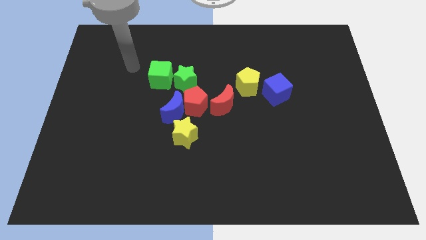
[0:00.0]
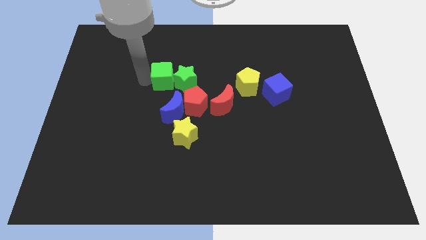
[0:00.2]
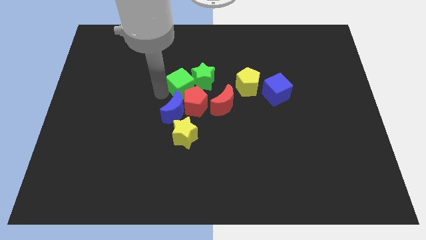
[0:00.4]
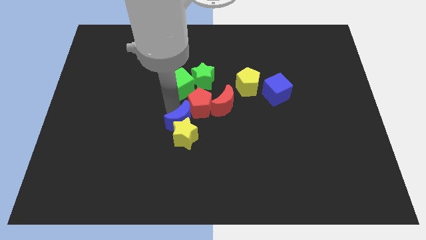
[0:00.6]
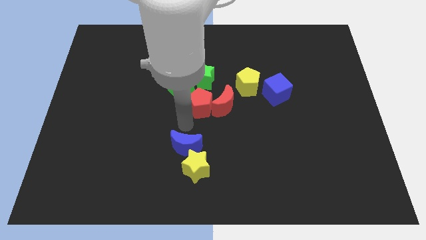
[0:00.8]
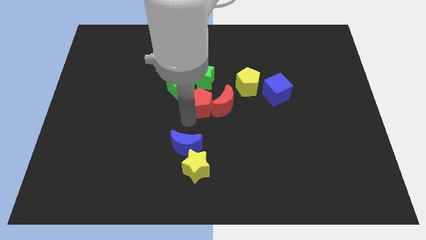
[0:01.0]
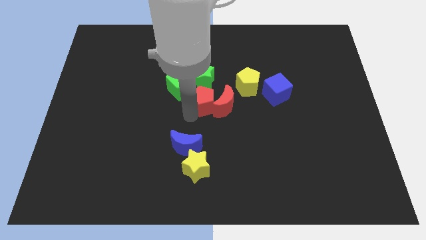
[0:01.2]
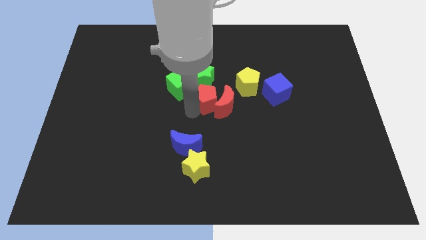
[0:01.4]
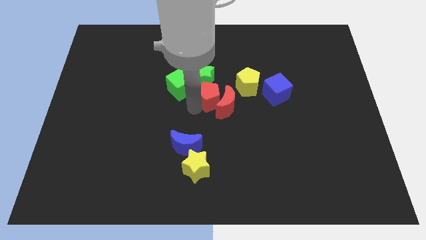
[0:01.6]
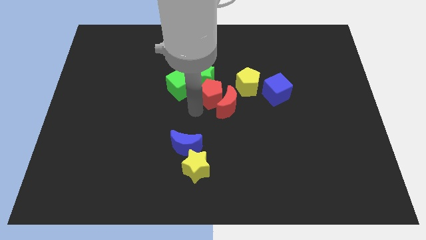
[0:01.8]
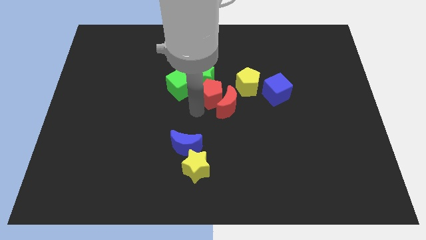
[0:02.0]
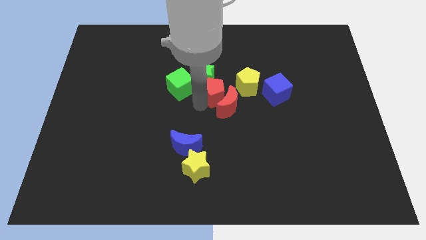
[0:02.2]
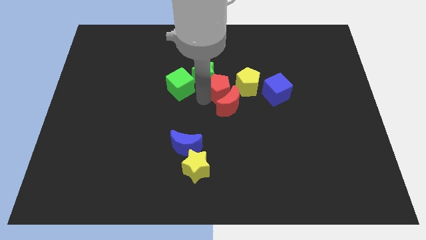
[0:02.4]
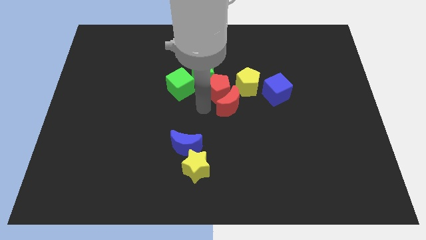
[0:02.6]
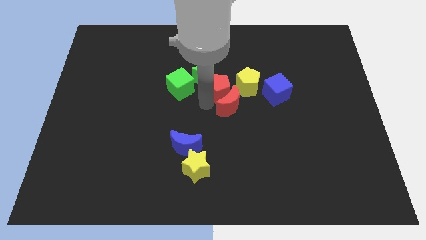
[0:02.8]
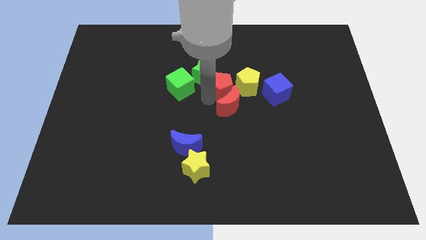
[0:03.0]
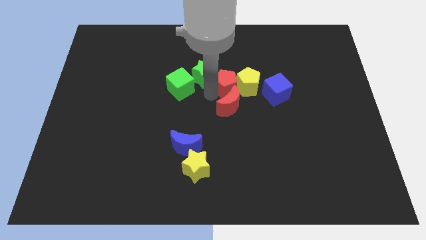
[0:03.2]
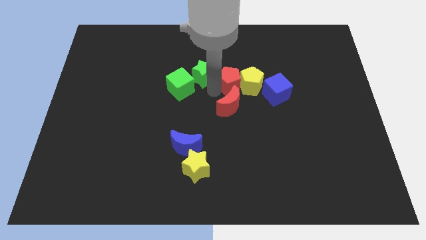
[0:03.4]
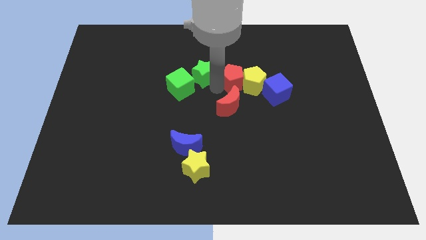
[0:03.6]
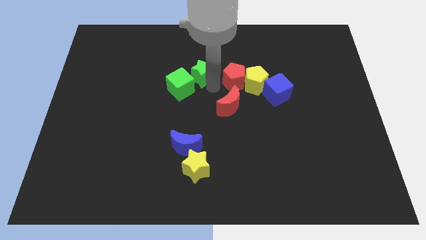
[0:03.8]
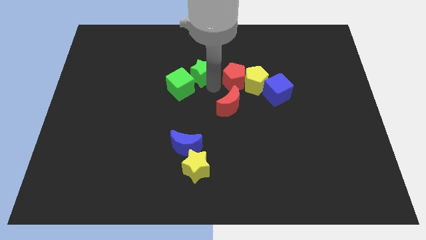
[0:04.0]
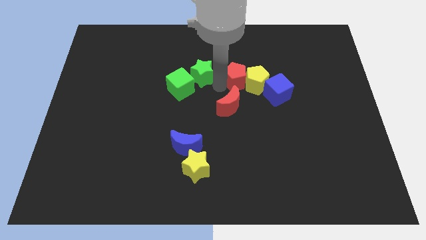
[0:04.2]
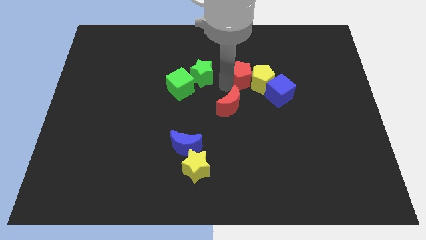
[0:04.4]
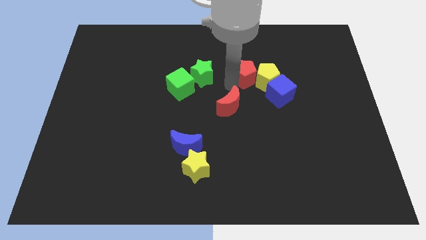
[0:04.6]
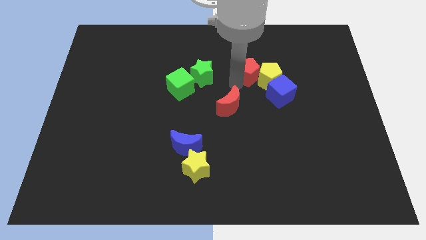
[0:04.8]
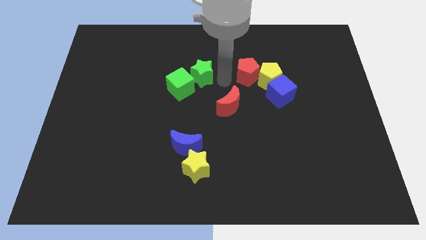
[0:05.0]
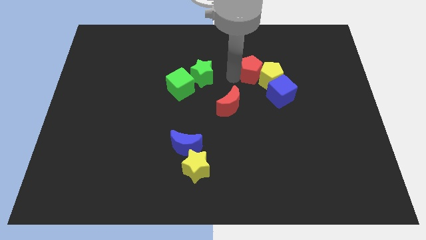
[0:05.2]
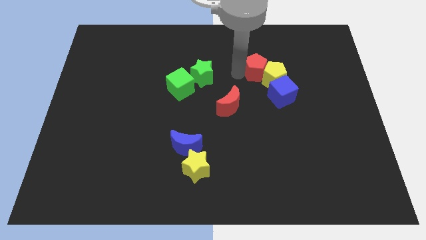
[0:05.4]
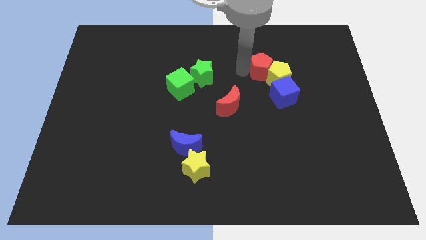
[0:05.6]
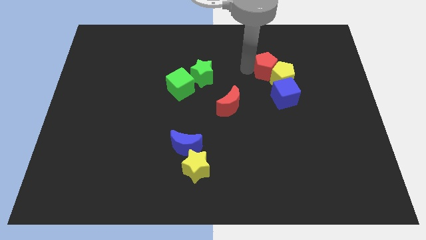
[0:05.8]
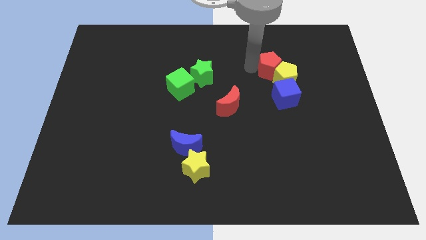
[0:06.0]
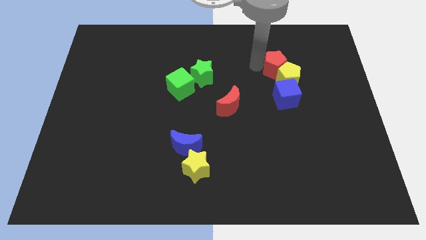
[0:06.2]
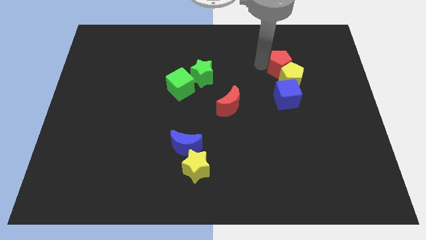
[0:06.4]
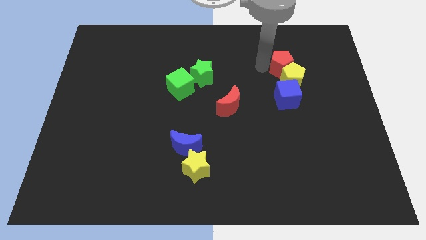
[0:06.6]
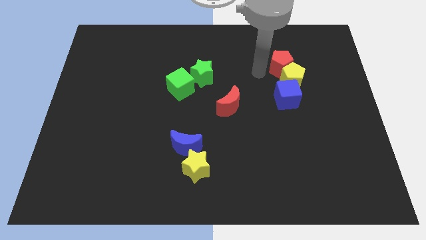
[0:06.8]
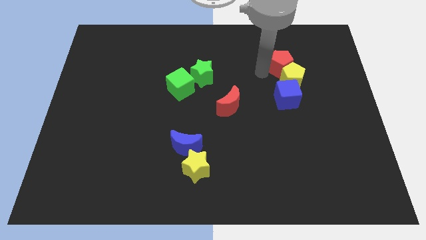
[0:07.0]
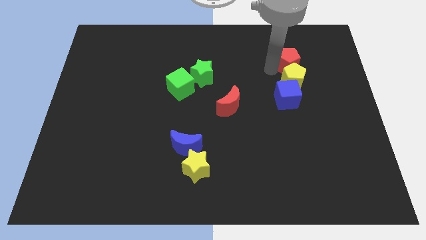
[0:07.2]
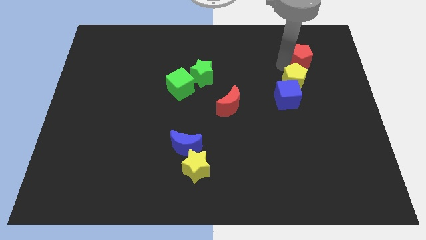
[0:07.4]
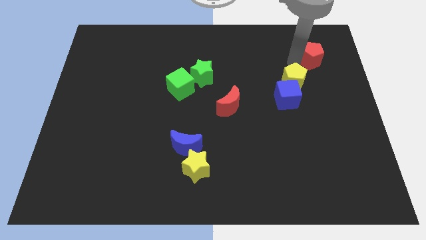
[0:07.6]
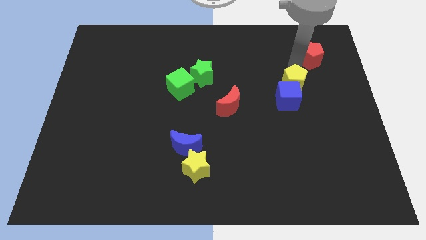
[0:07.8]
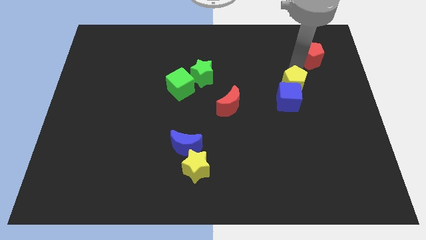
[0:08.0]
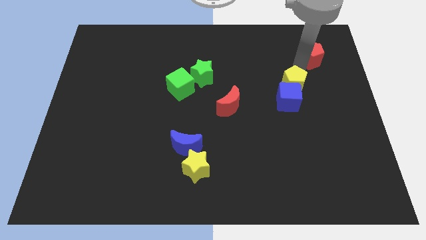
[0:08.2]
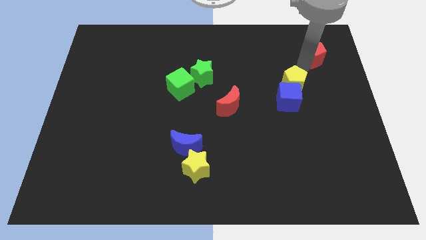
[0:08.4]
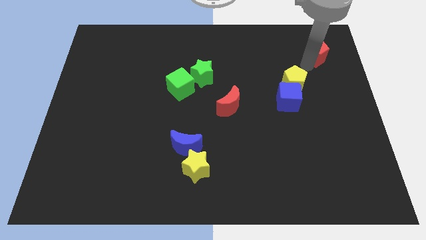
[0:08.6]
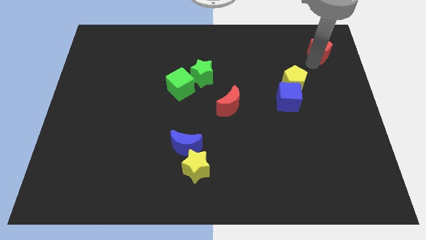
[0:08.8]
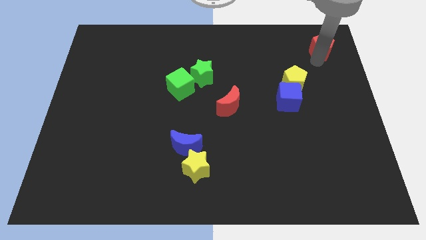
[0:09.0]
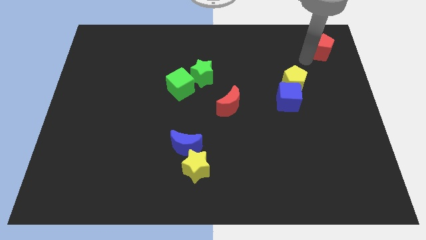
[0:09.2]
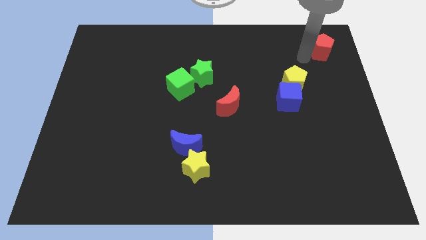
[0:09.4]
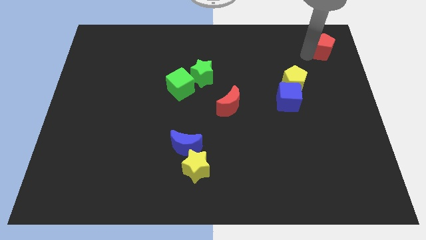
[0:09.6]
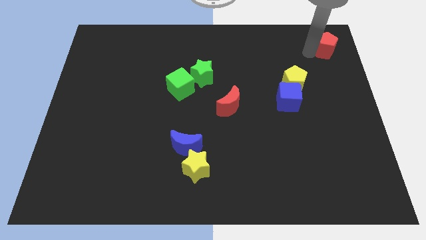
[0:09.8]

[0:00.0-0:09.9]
put the red pentagon to the upper right corner
